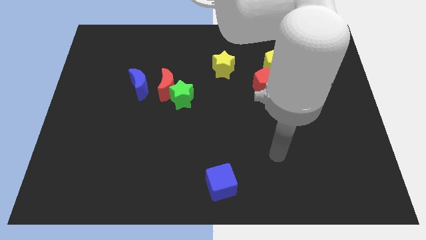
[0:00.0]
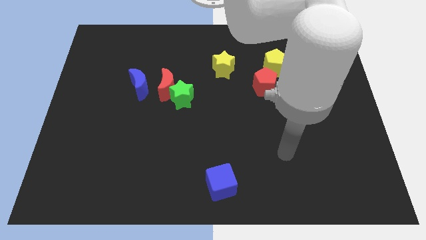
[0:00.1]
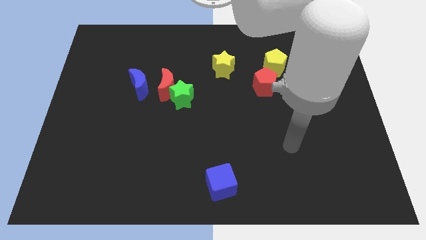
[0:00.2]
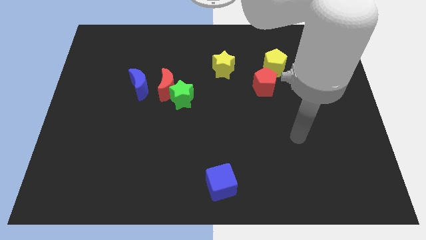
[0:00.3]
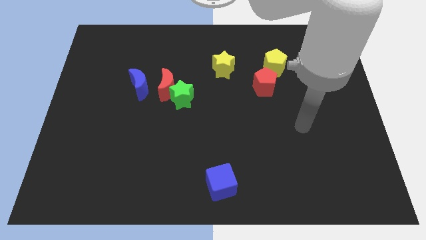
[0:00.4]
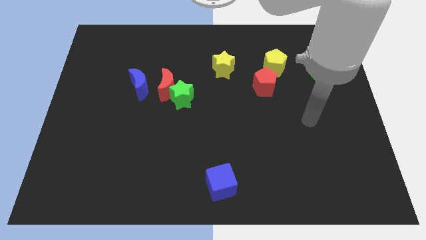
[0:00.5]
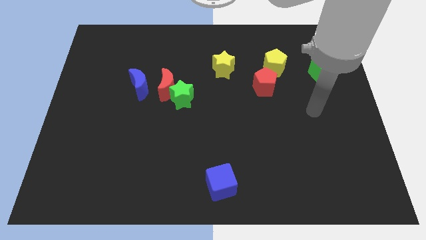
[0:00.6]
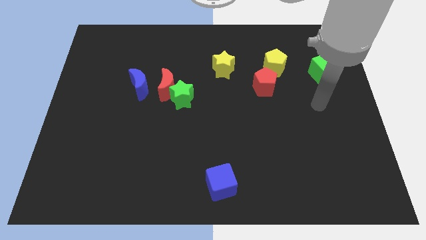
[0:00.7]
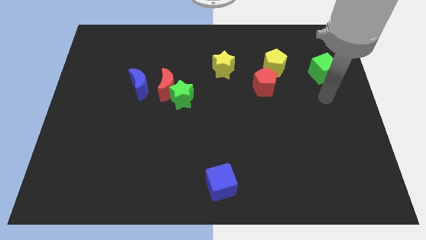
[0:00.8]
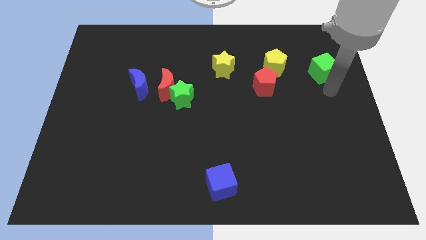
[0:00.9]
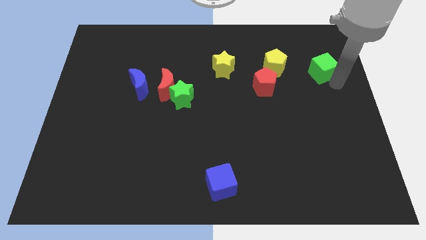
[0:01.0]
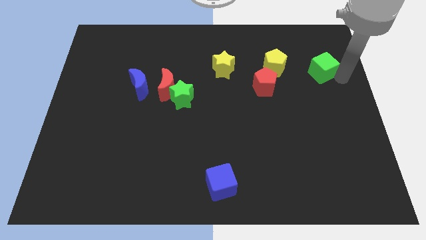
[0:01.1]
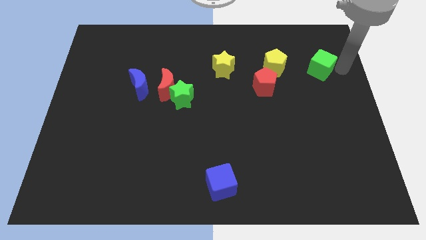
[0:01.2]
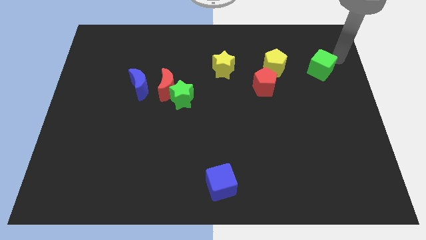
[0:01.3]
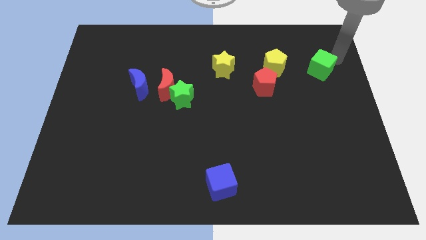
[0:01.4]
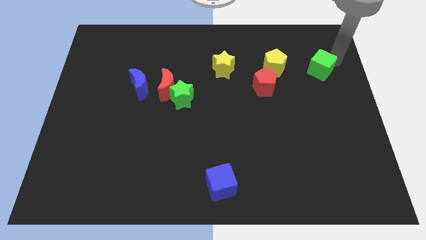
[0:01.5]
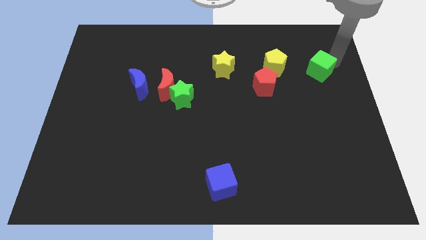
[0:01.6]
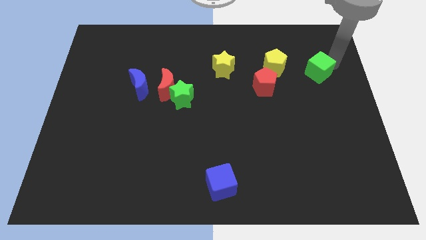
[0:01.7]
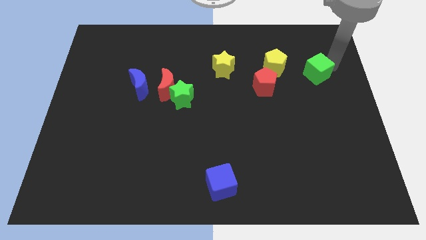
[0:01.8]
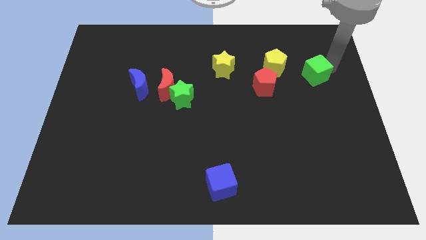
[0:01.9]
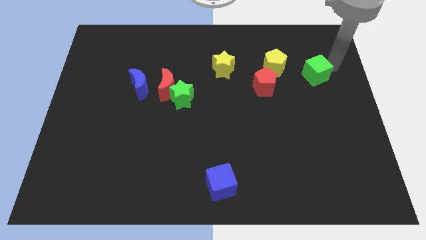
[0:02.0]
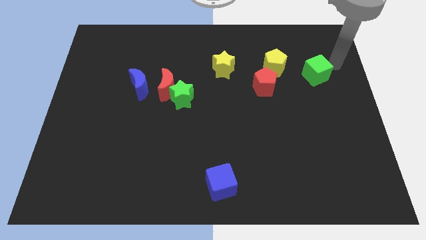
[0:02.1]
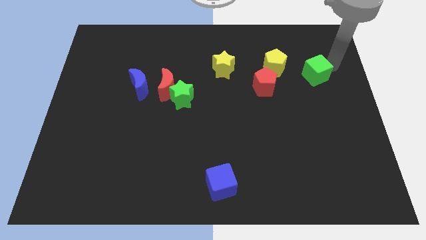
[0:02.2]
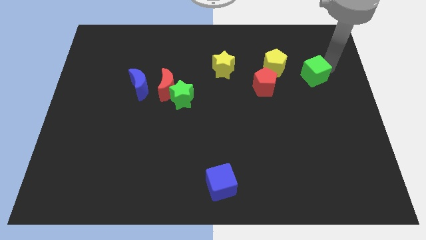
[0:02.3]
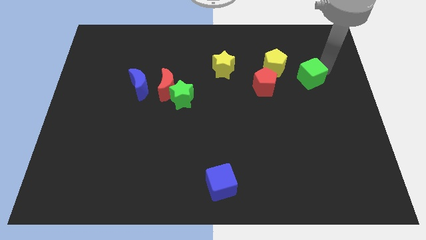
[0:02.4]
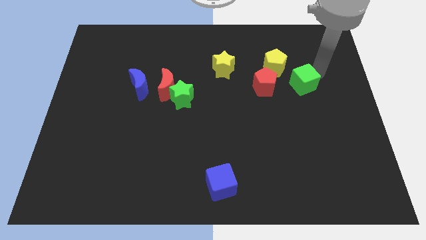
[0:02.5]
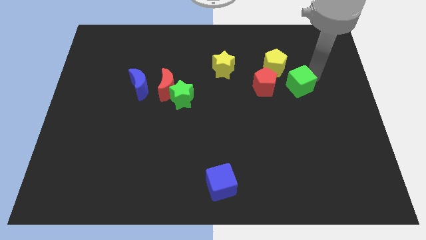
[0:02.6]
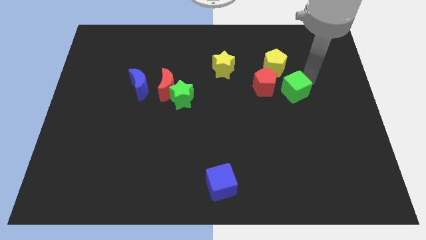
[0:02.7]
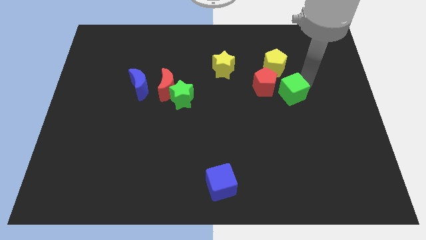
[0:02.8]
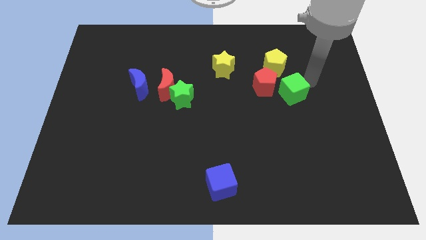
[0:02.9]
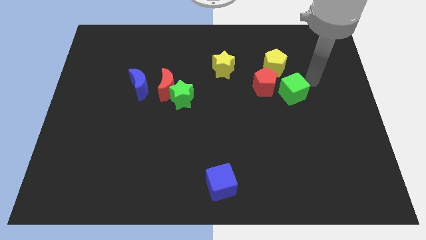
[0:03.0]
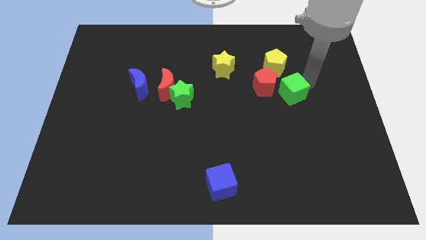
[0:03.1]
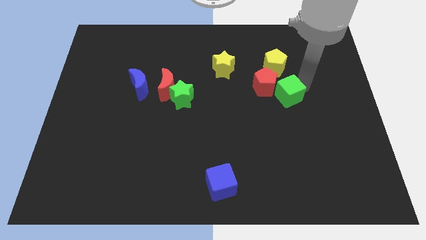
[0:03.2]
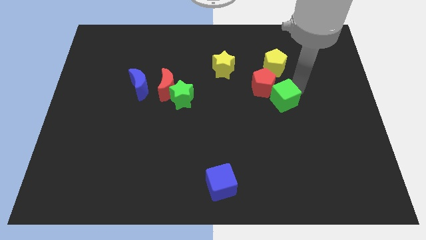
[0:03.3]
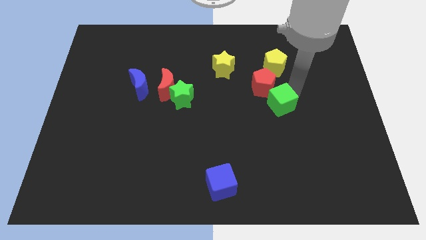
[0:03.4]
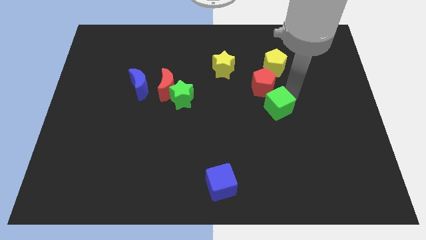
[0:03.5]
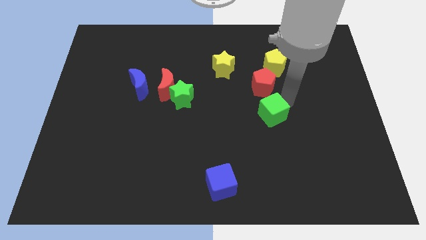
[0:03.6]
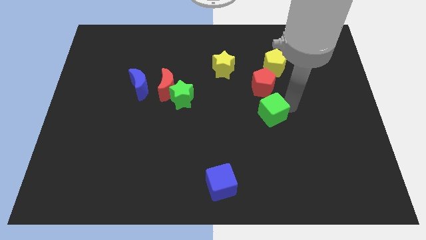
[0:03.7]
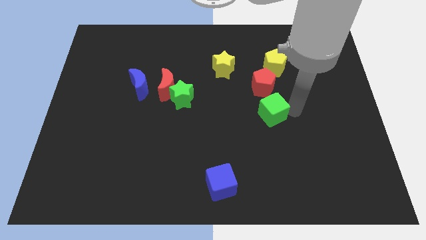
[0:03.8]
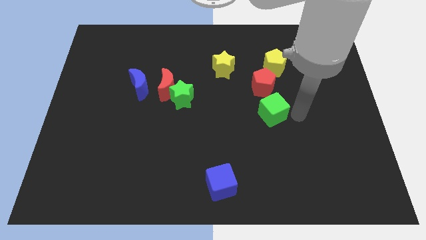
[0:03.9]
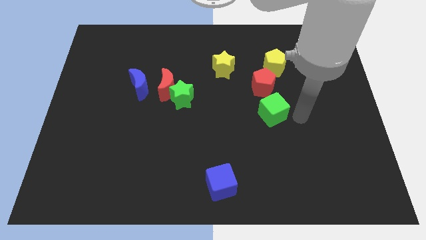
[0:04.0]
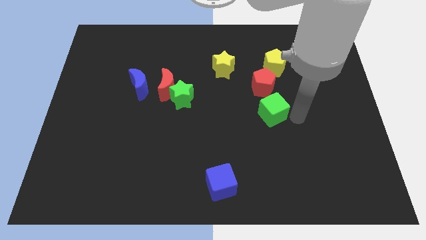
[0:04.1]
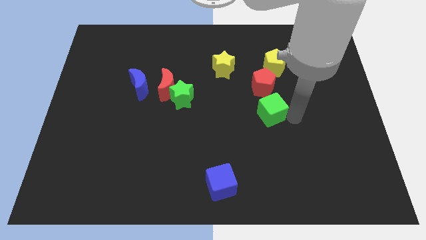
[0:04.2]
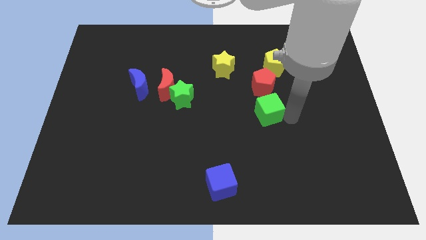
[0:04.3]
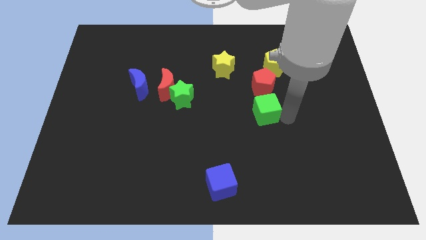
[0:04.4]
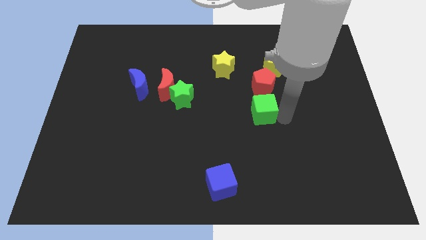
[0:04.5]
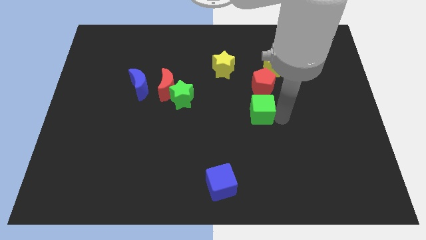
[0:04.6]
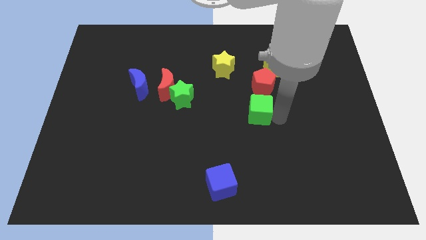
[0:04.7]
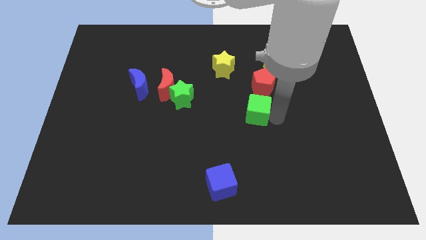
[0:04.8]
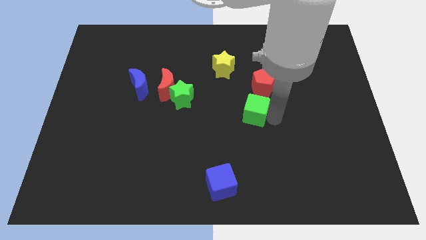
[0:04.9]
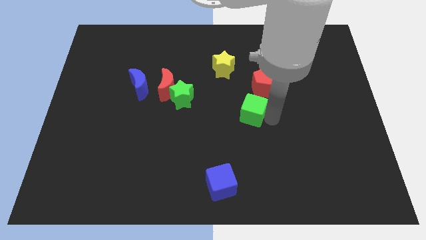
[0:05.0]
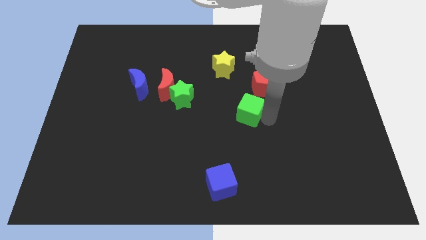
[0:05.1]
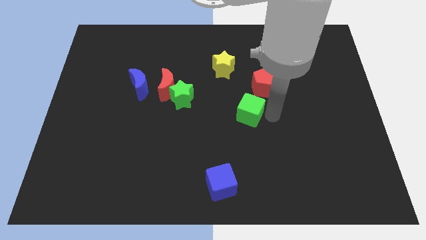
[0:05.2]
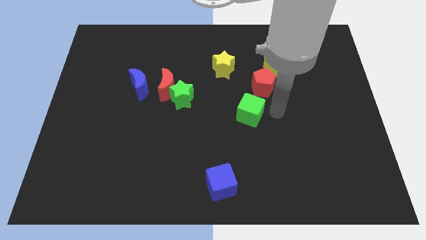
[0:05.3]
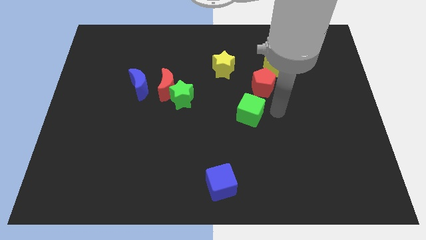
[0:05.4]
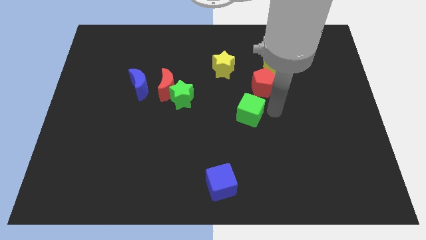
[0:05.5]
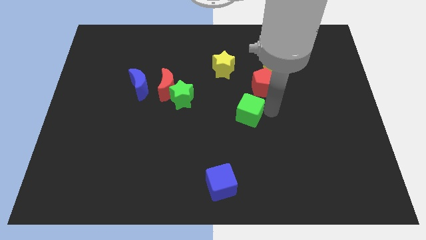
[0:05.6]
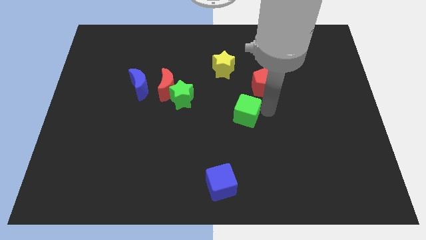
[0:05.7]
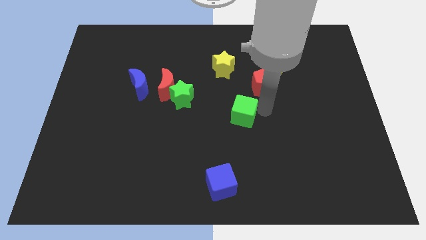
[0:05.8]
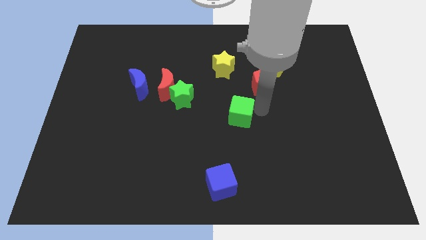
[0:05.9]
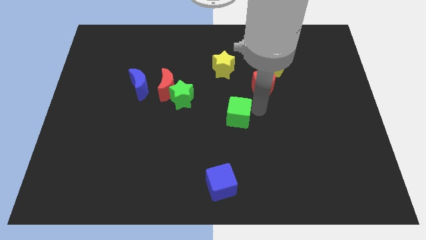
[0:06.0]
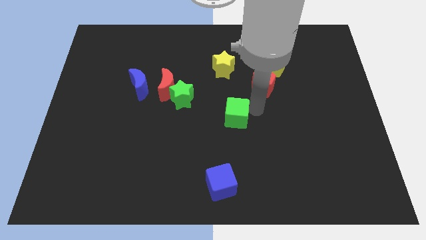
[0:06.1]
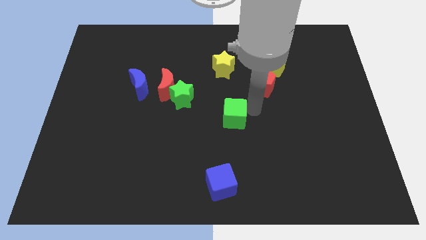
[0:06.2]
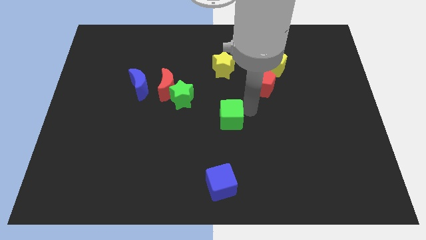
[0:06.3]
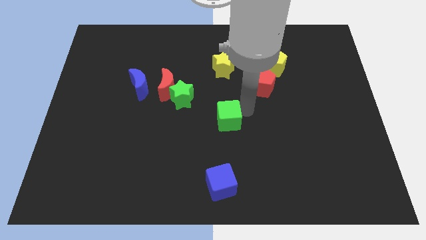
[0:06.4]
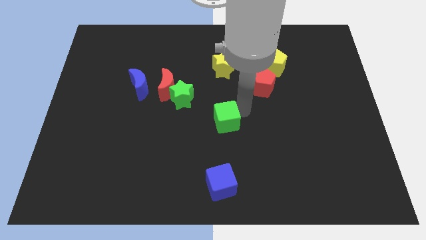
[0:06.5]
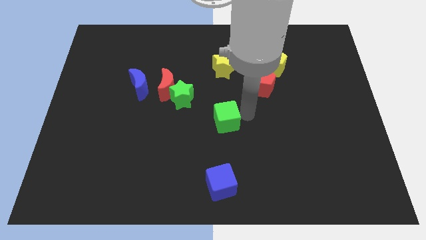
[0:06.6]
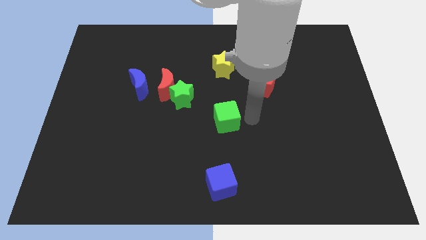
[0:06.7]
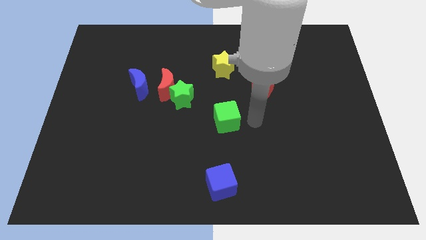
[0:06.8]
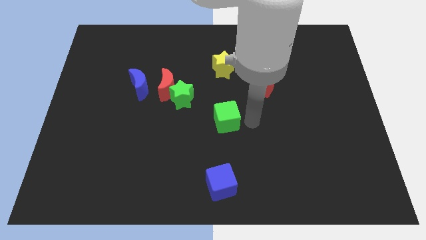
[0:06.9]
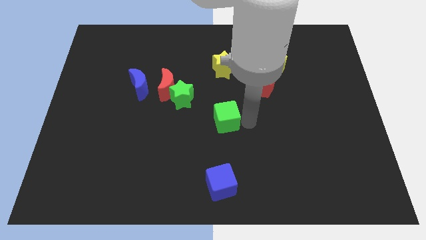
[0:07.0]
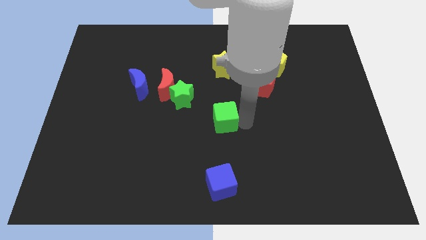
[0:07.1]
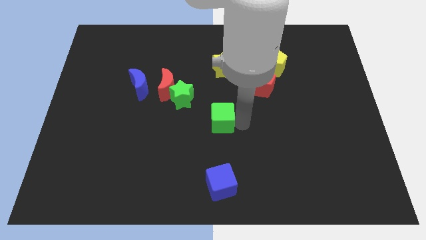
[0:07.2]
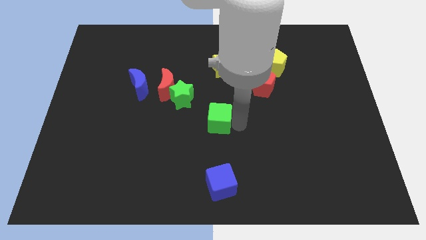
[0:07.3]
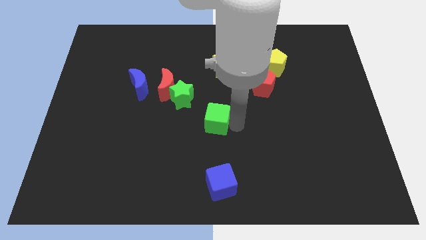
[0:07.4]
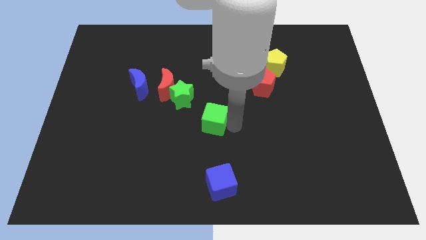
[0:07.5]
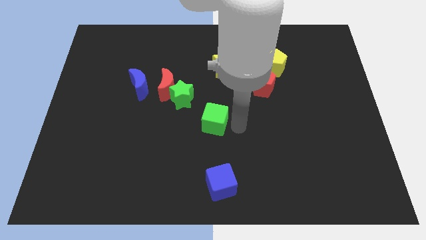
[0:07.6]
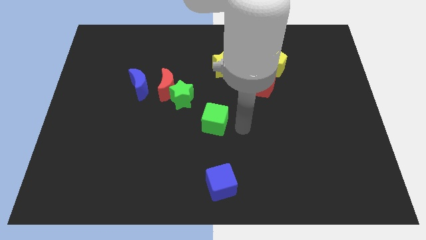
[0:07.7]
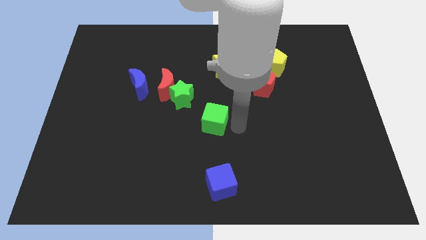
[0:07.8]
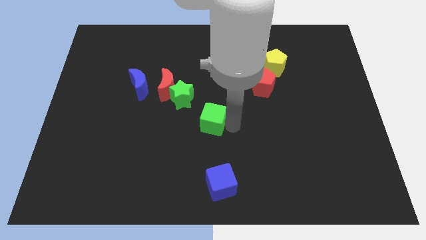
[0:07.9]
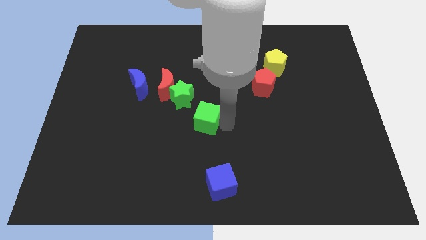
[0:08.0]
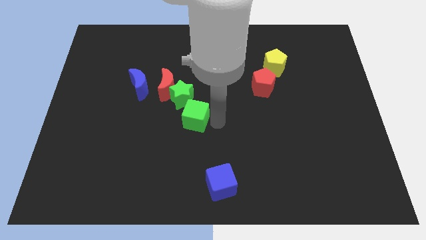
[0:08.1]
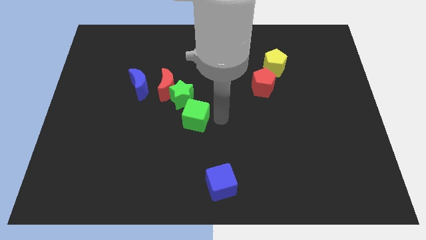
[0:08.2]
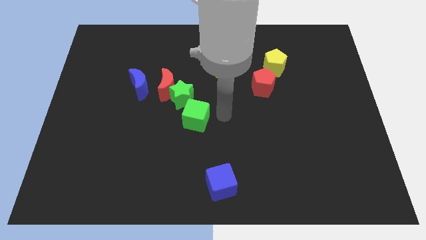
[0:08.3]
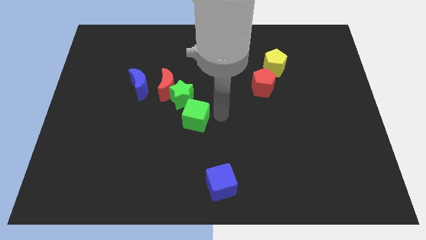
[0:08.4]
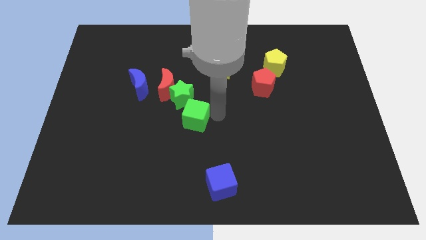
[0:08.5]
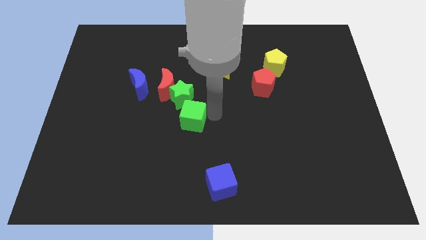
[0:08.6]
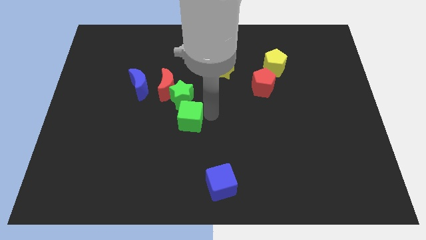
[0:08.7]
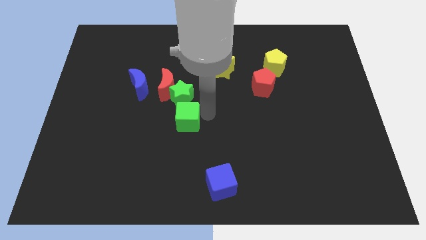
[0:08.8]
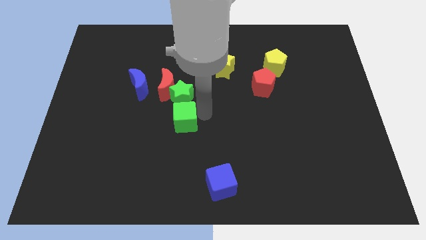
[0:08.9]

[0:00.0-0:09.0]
push the green cube to the bottom of the red moon
